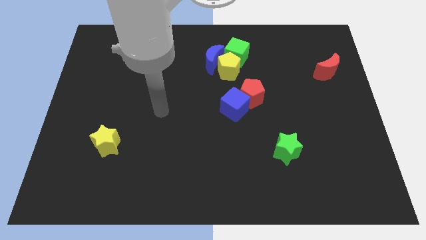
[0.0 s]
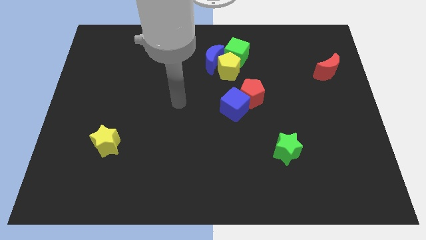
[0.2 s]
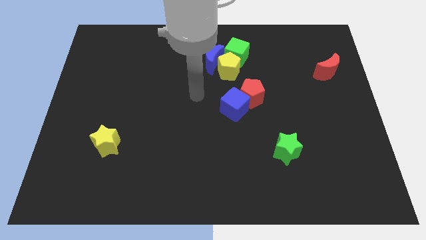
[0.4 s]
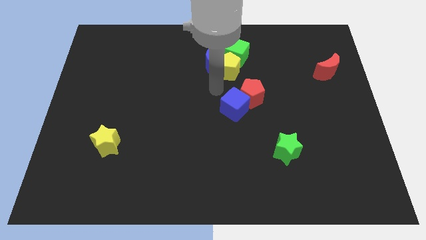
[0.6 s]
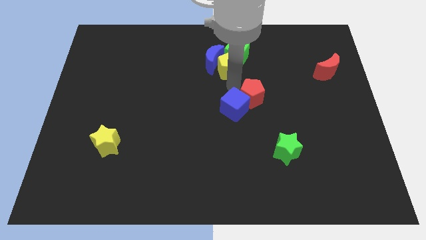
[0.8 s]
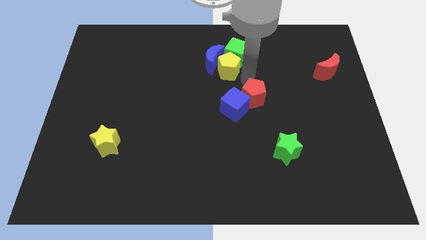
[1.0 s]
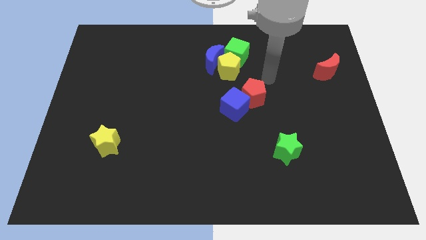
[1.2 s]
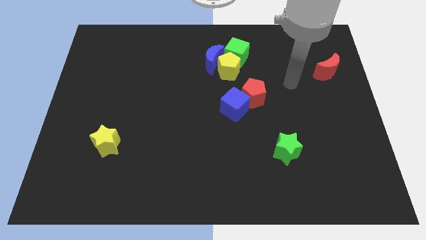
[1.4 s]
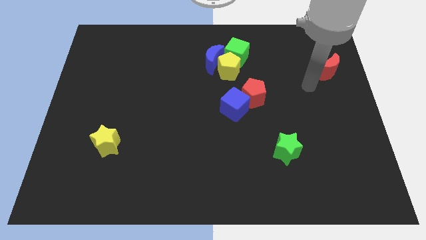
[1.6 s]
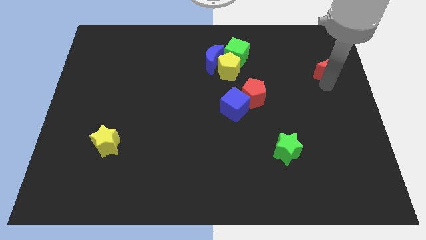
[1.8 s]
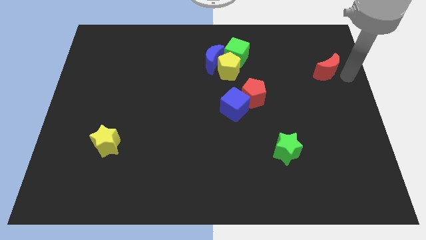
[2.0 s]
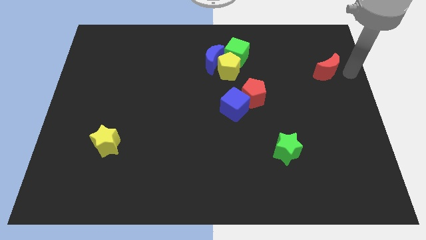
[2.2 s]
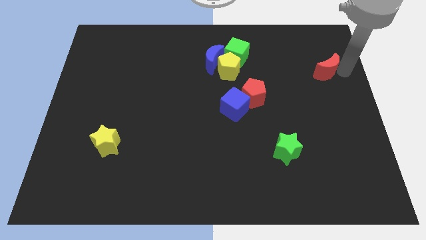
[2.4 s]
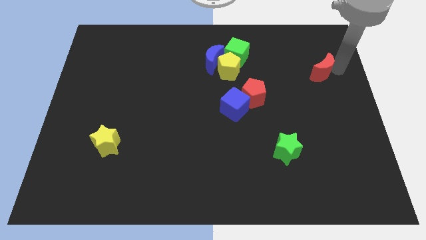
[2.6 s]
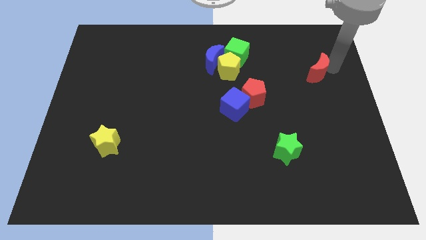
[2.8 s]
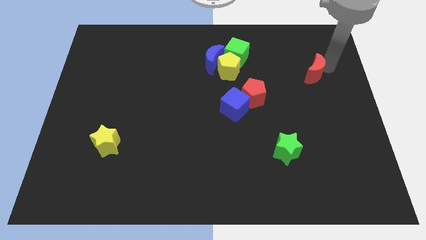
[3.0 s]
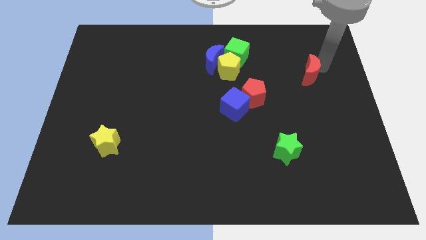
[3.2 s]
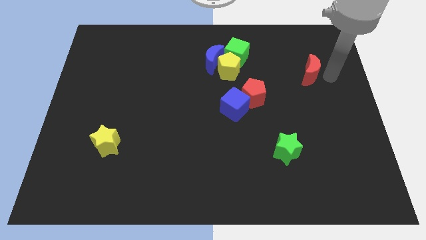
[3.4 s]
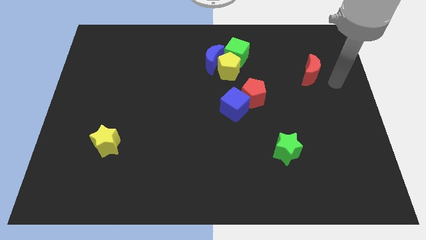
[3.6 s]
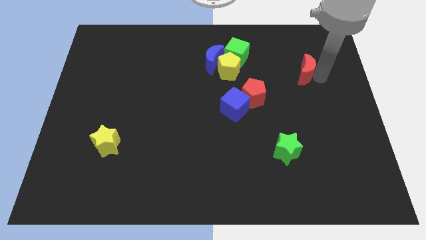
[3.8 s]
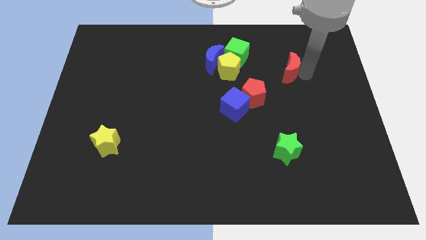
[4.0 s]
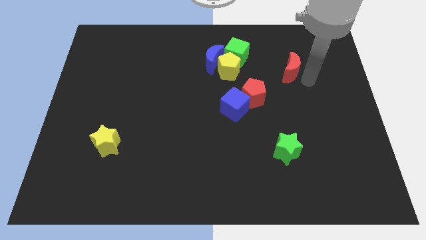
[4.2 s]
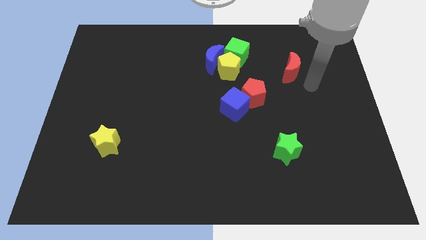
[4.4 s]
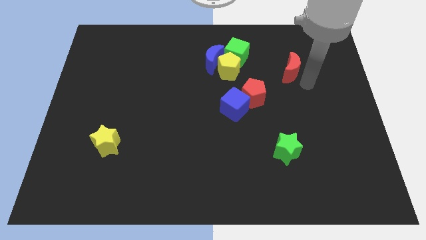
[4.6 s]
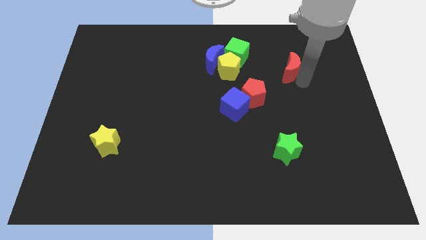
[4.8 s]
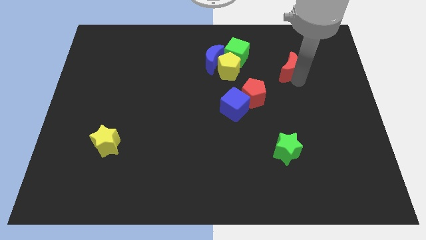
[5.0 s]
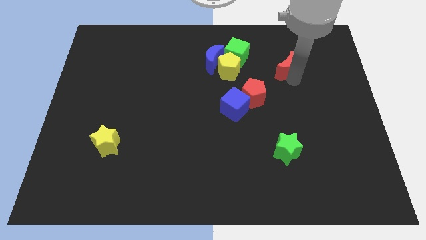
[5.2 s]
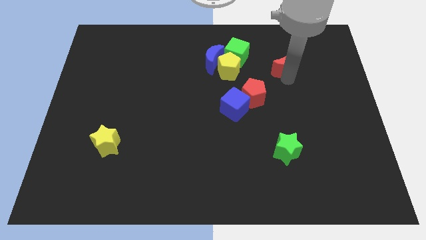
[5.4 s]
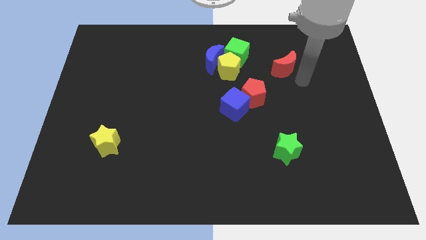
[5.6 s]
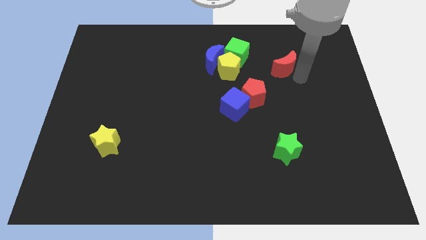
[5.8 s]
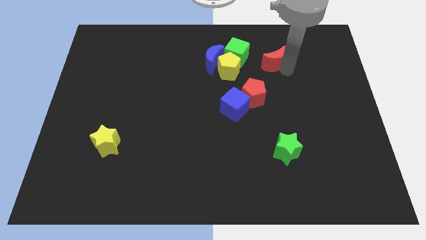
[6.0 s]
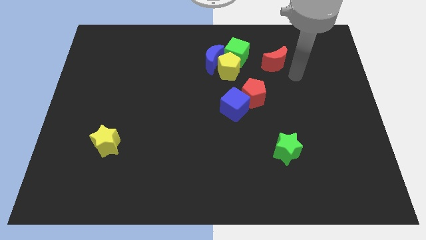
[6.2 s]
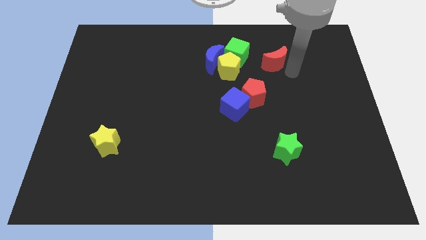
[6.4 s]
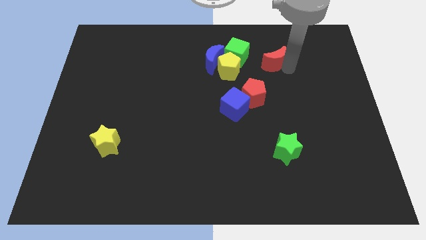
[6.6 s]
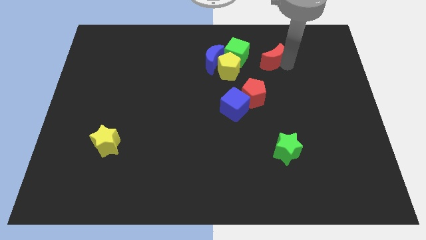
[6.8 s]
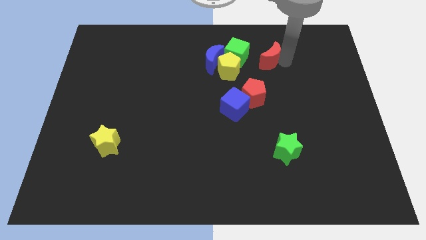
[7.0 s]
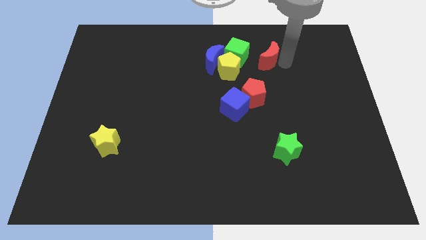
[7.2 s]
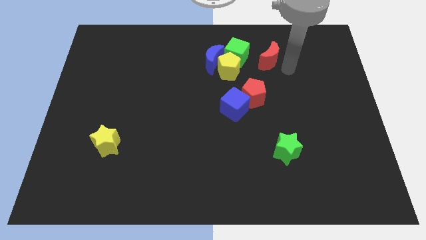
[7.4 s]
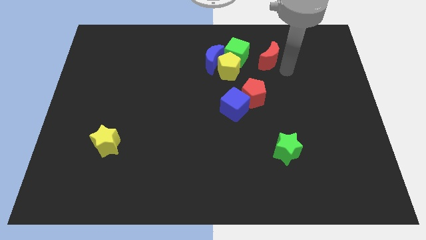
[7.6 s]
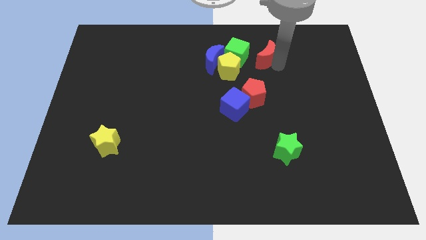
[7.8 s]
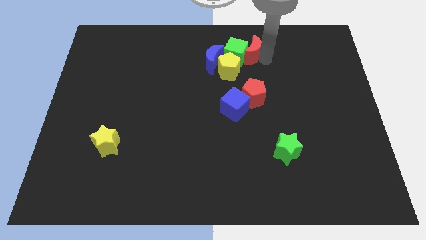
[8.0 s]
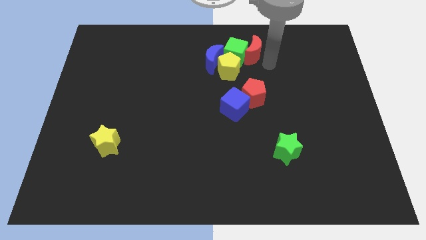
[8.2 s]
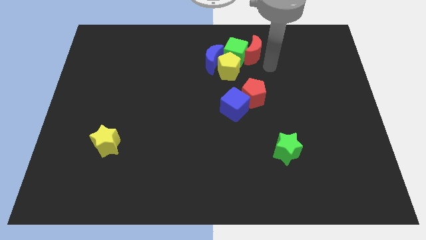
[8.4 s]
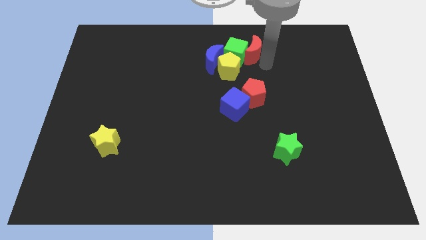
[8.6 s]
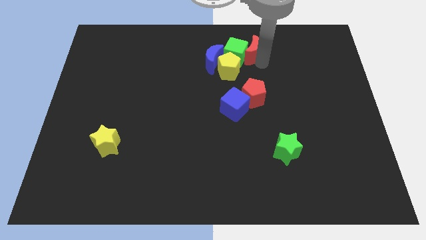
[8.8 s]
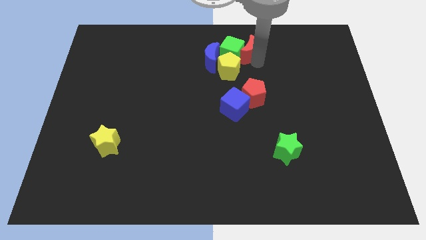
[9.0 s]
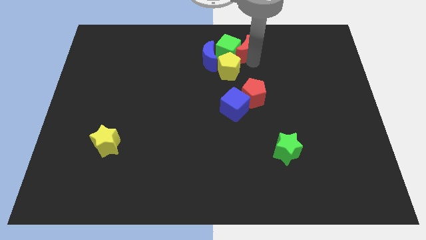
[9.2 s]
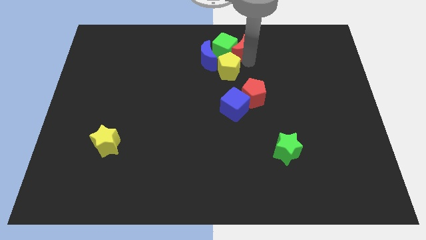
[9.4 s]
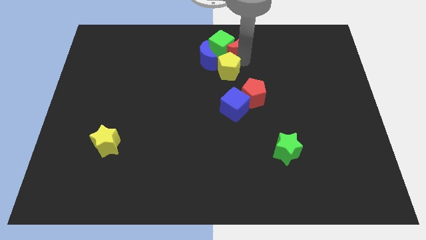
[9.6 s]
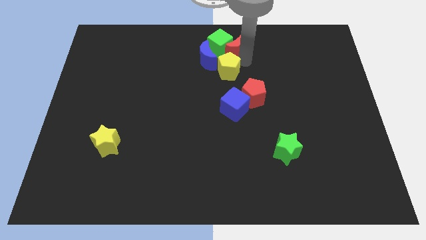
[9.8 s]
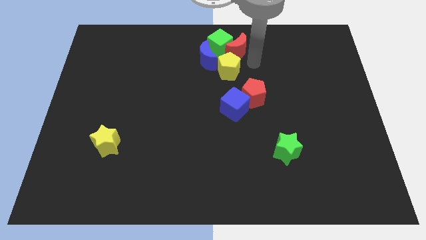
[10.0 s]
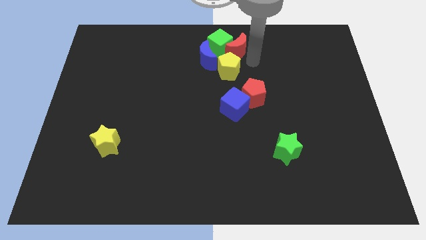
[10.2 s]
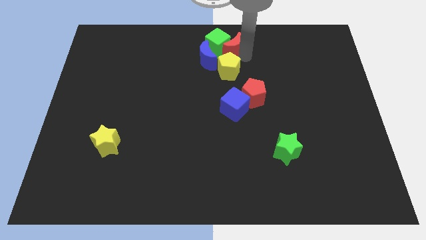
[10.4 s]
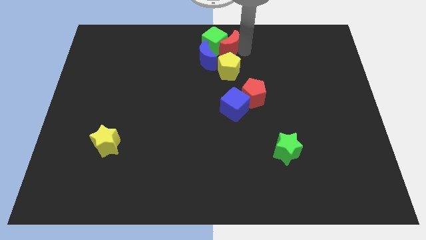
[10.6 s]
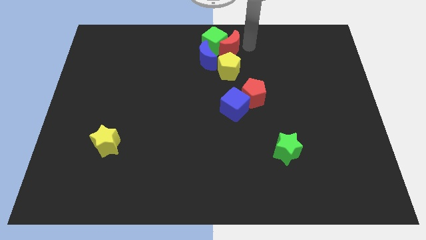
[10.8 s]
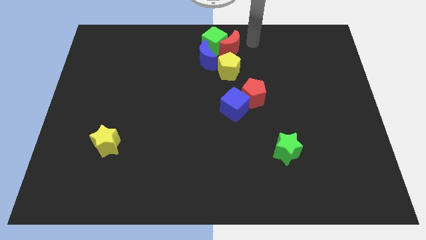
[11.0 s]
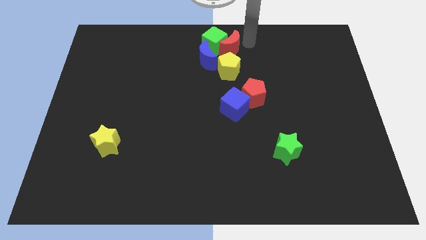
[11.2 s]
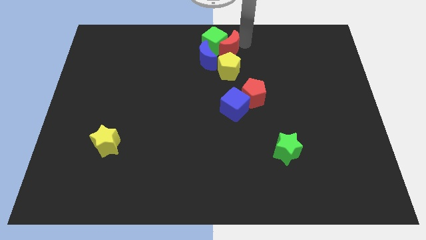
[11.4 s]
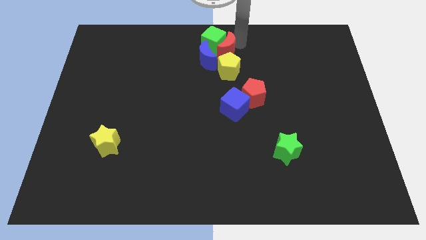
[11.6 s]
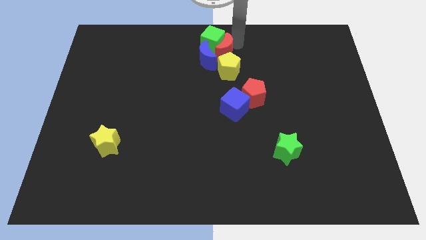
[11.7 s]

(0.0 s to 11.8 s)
push the red moon towards the blue moon
